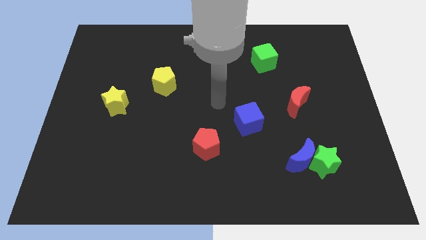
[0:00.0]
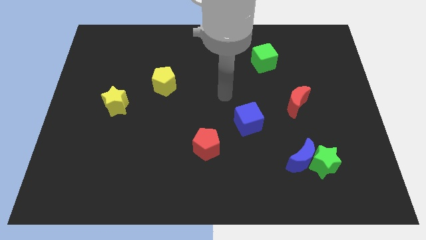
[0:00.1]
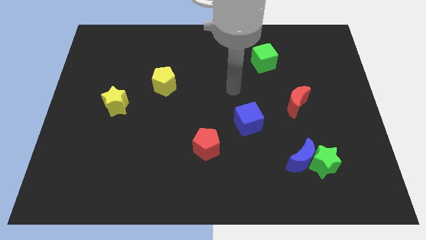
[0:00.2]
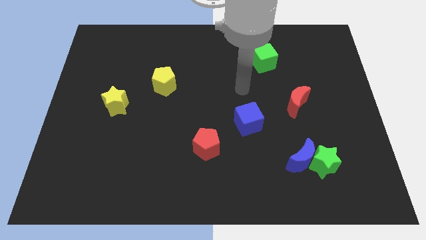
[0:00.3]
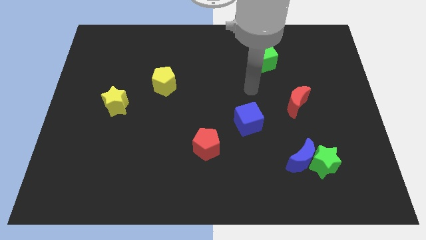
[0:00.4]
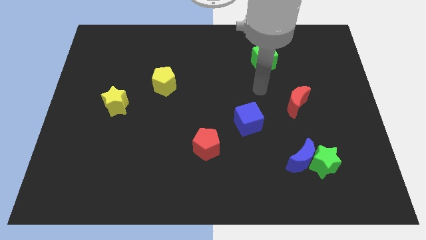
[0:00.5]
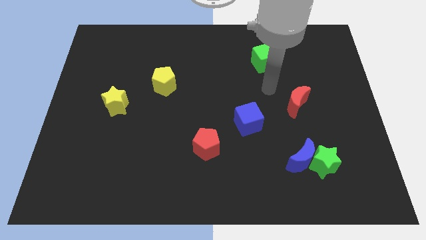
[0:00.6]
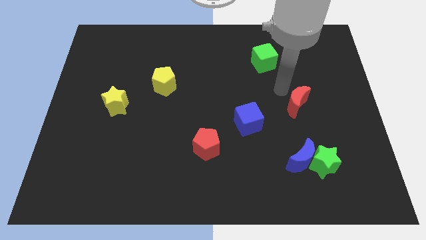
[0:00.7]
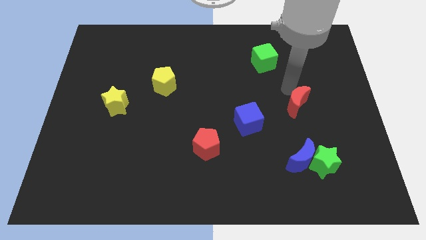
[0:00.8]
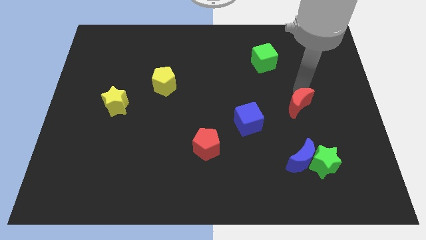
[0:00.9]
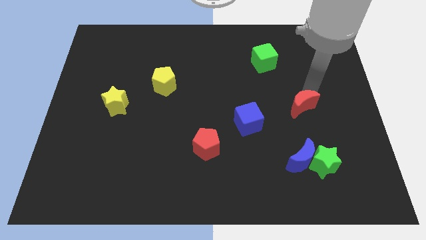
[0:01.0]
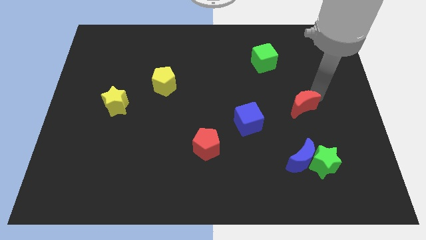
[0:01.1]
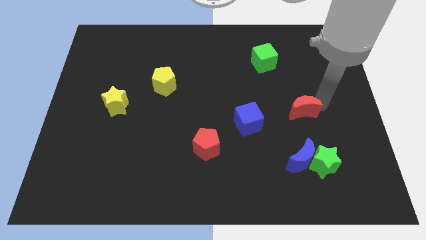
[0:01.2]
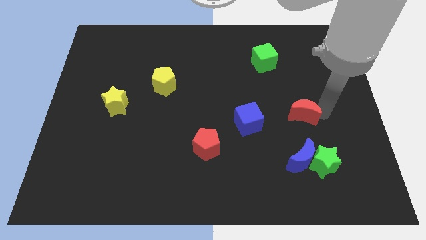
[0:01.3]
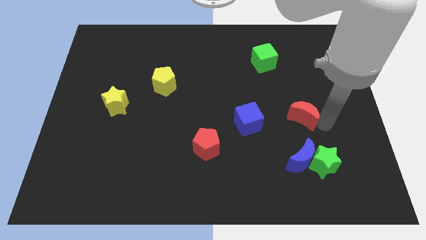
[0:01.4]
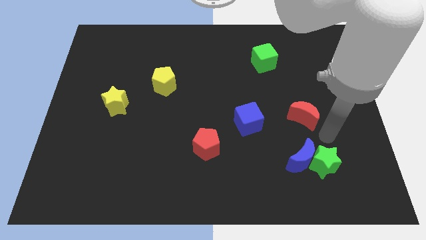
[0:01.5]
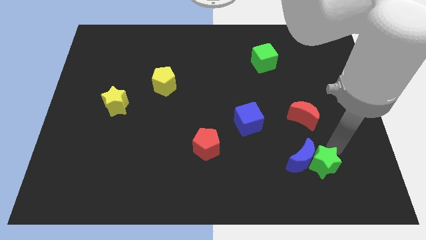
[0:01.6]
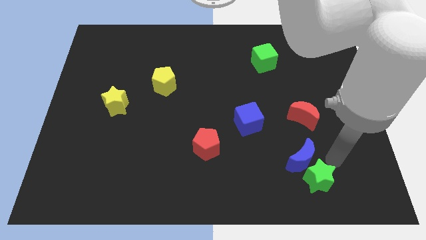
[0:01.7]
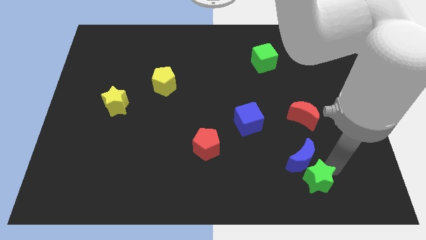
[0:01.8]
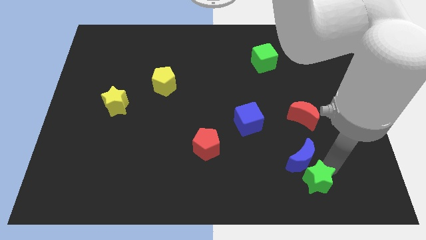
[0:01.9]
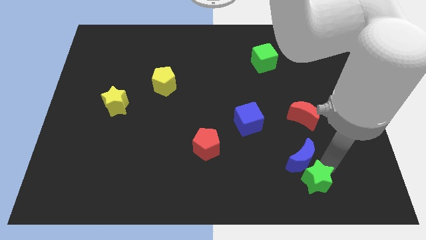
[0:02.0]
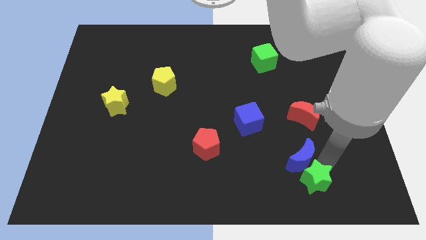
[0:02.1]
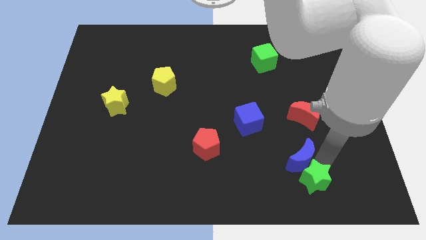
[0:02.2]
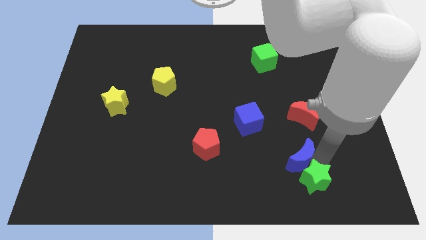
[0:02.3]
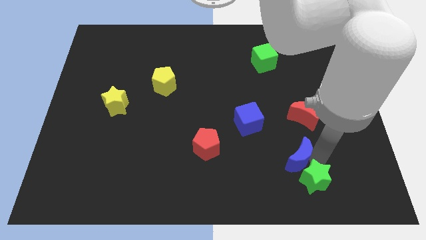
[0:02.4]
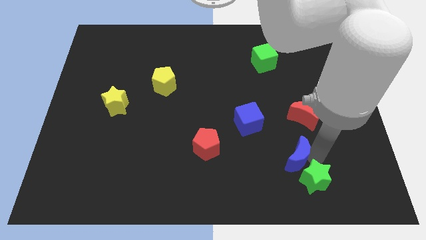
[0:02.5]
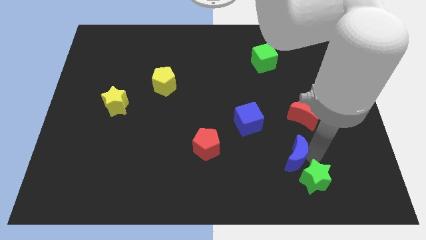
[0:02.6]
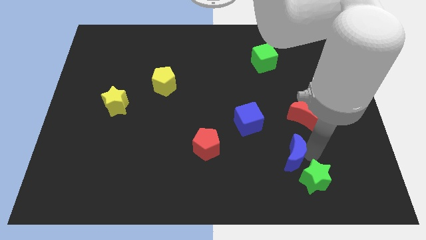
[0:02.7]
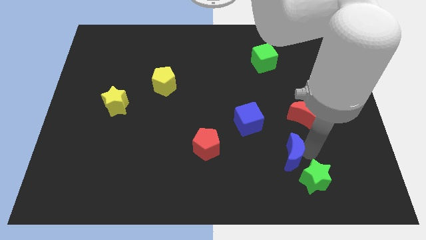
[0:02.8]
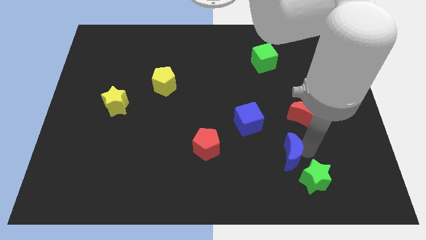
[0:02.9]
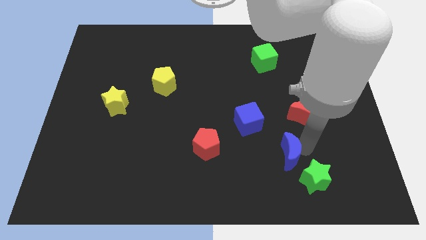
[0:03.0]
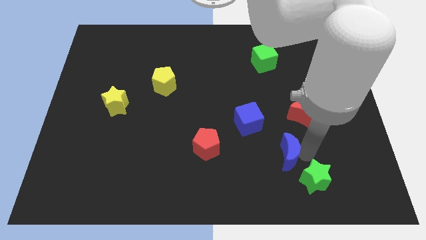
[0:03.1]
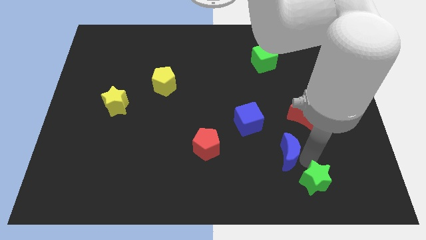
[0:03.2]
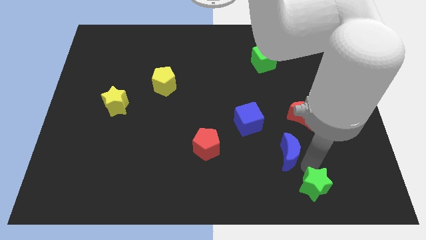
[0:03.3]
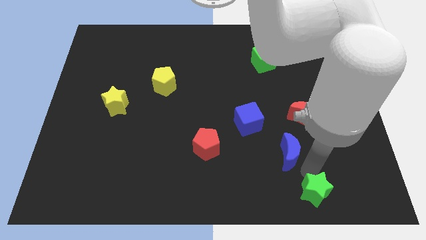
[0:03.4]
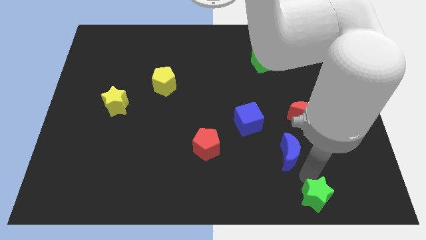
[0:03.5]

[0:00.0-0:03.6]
separate the blue moon from the green star

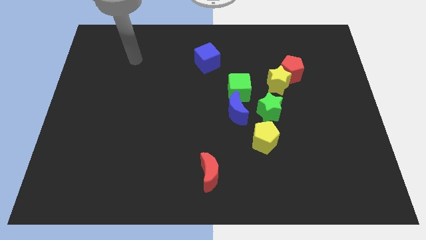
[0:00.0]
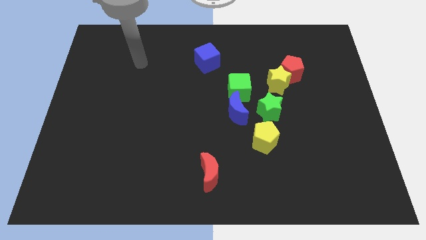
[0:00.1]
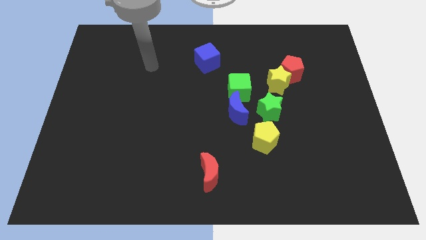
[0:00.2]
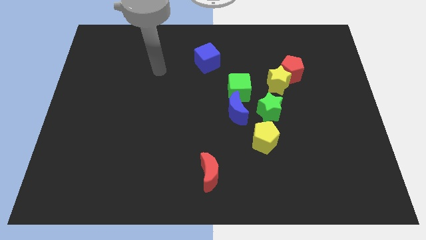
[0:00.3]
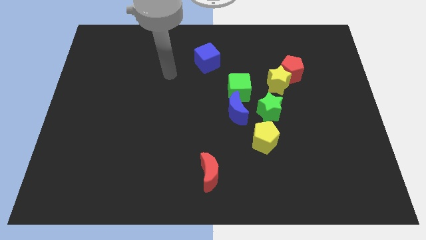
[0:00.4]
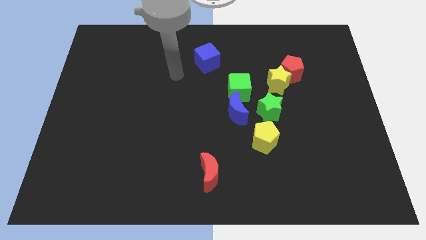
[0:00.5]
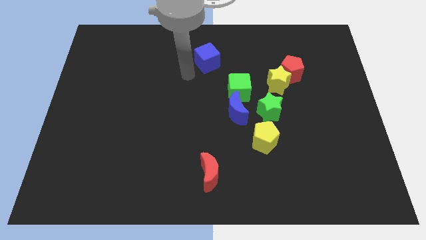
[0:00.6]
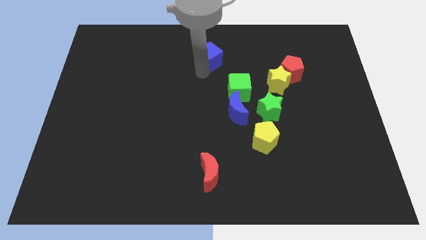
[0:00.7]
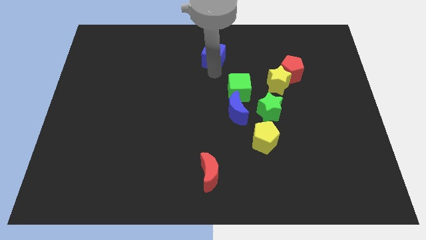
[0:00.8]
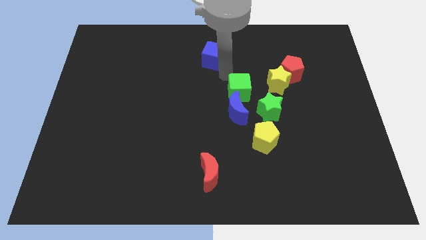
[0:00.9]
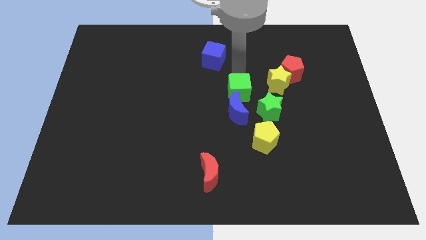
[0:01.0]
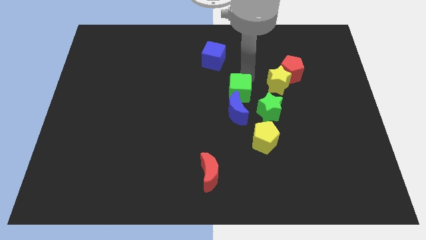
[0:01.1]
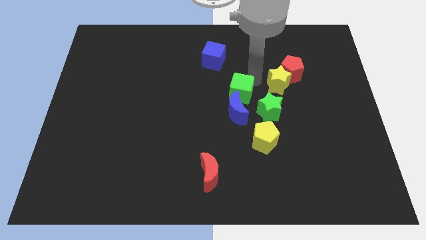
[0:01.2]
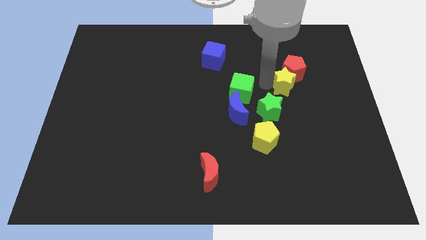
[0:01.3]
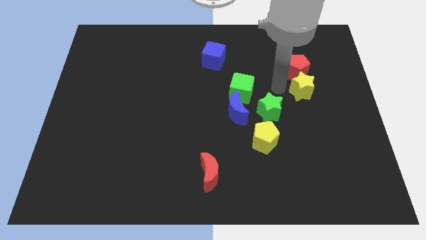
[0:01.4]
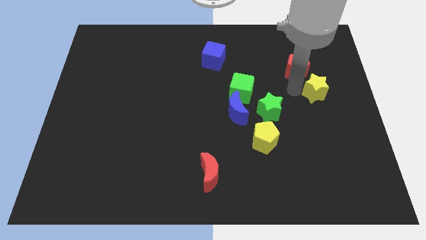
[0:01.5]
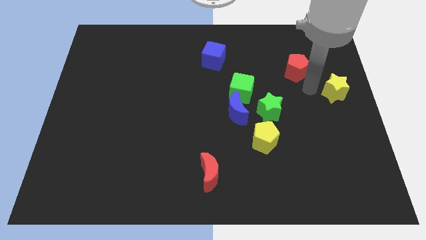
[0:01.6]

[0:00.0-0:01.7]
separate the red pentagon from the yellow star

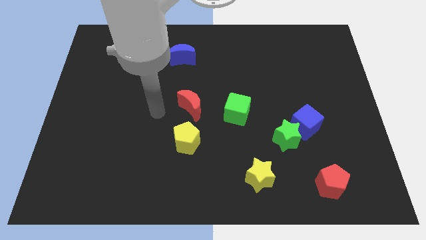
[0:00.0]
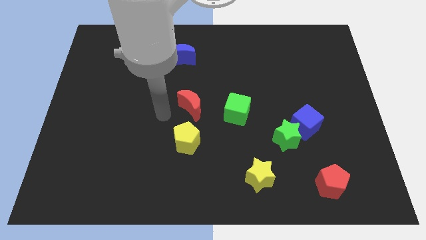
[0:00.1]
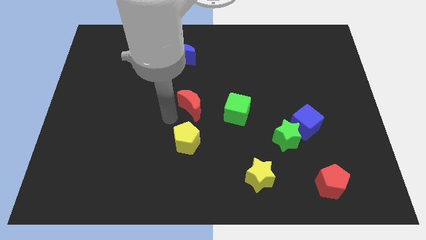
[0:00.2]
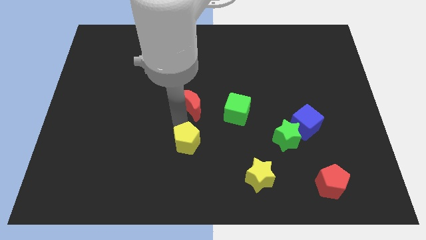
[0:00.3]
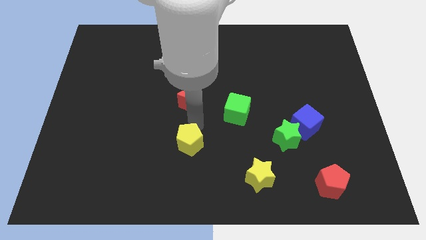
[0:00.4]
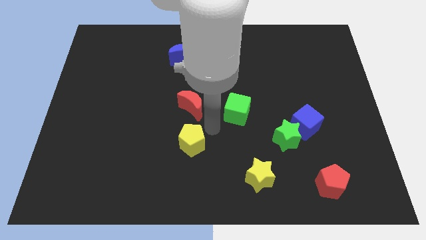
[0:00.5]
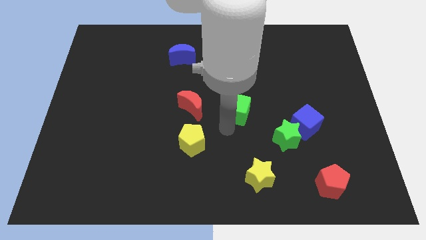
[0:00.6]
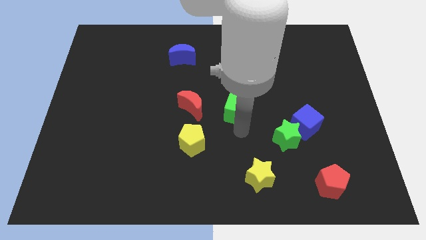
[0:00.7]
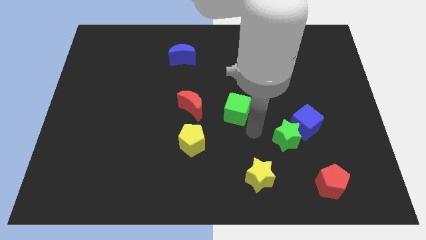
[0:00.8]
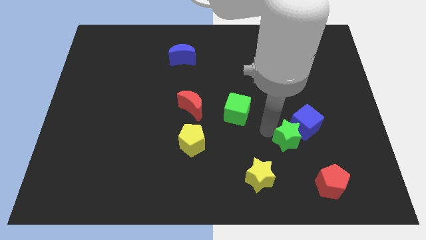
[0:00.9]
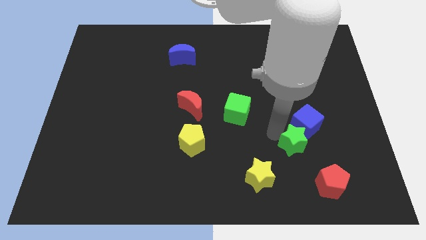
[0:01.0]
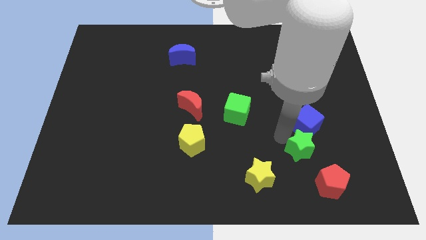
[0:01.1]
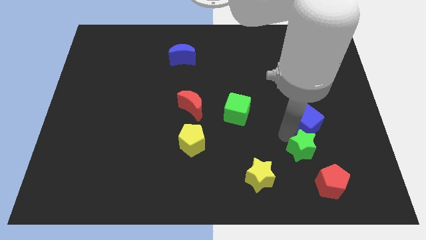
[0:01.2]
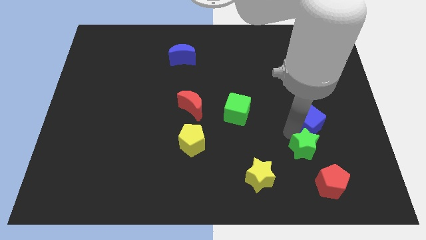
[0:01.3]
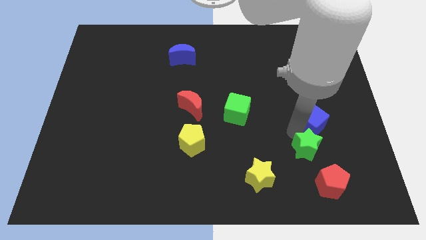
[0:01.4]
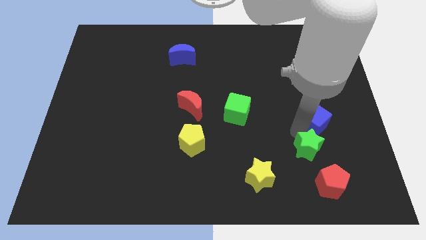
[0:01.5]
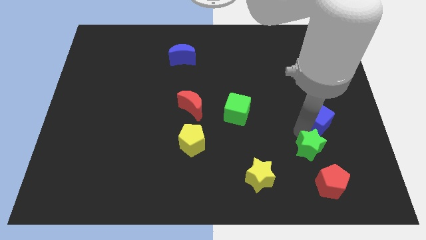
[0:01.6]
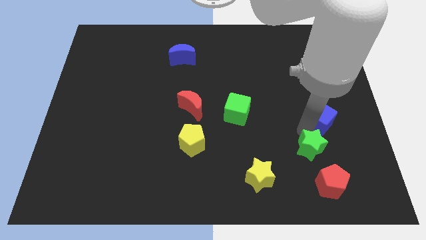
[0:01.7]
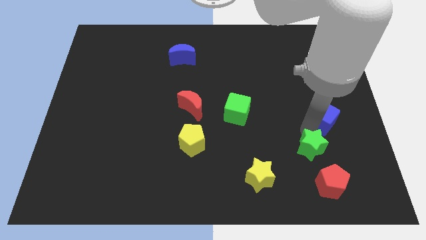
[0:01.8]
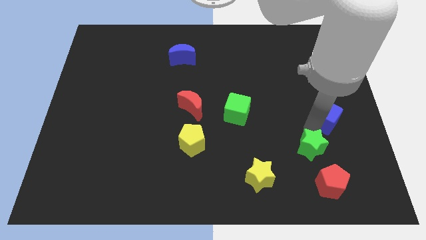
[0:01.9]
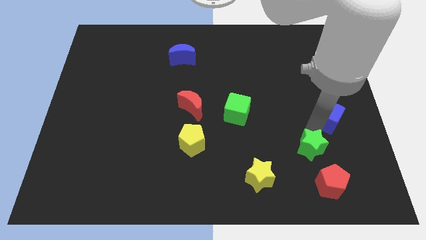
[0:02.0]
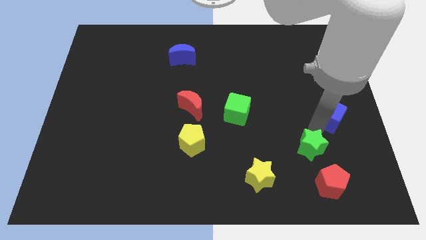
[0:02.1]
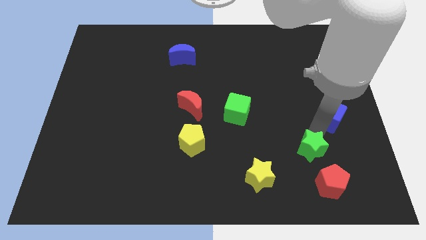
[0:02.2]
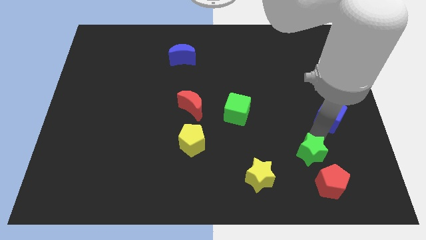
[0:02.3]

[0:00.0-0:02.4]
move the blue cube away from the green star

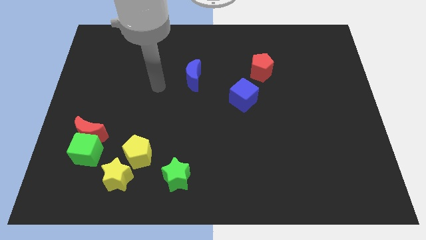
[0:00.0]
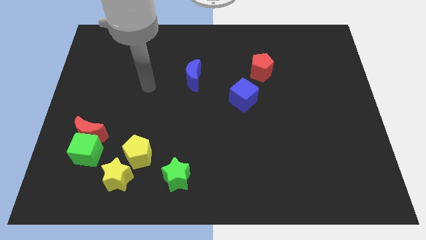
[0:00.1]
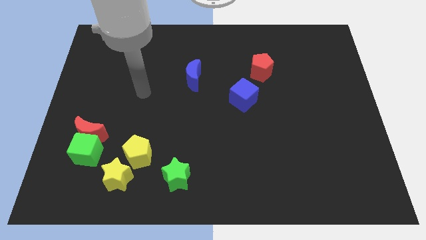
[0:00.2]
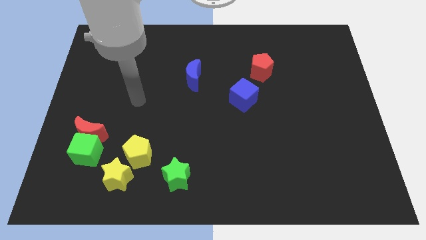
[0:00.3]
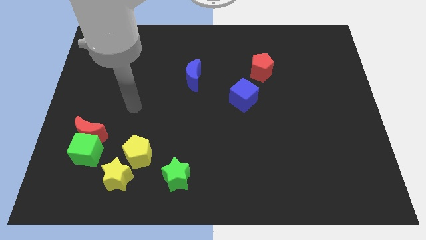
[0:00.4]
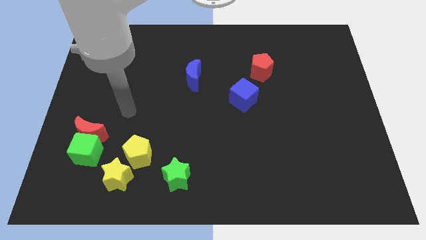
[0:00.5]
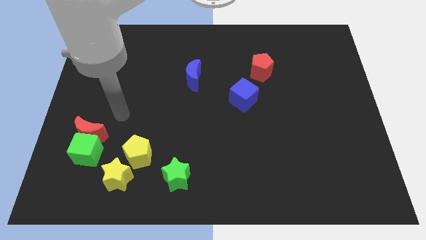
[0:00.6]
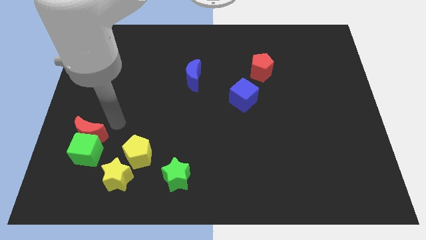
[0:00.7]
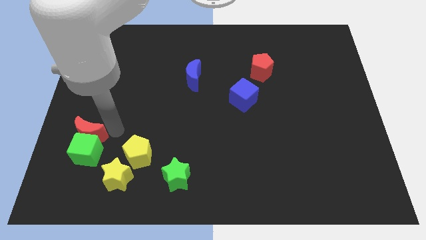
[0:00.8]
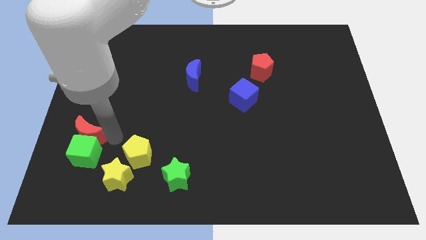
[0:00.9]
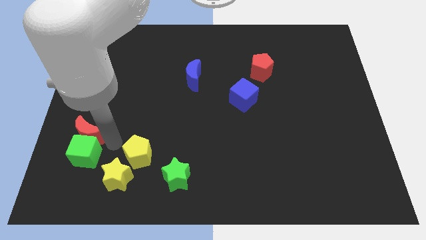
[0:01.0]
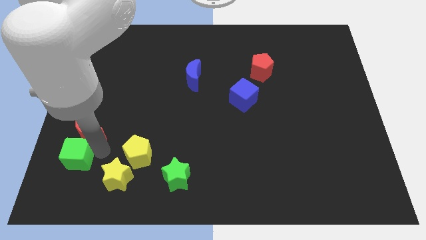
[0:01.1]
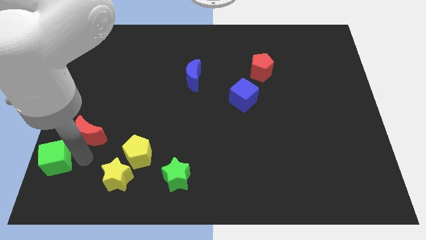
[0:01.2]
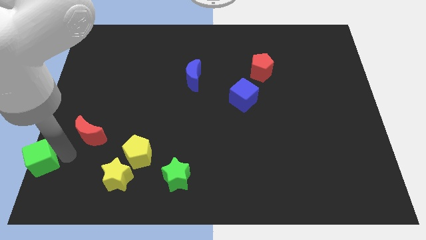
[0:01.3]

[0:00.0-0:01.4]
separate the red moon from the green cube

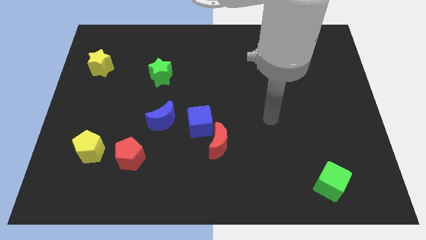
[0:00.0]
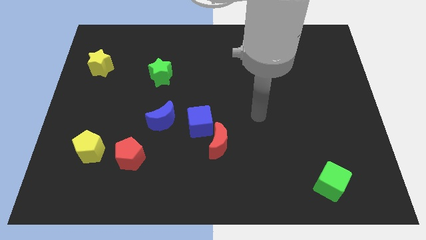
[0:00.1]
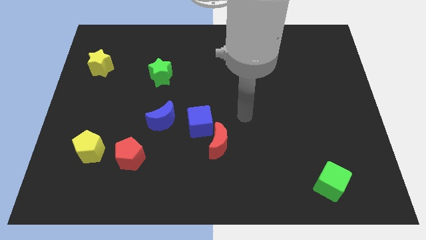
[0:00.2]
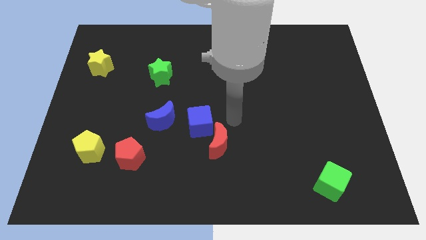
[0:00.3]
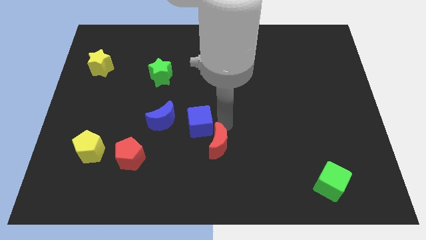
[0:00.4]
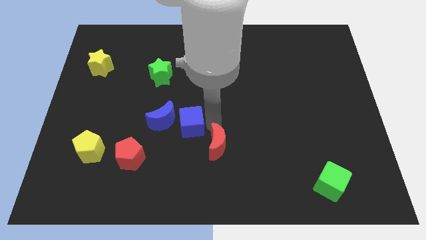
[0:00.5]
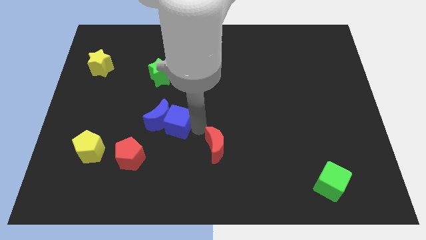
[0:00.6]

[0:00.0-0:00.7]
pull the red moon apart from the blue cube
